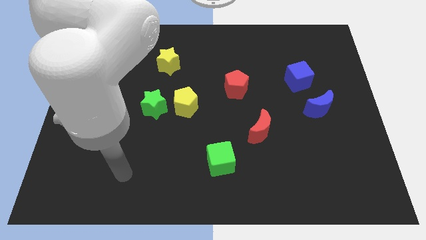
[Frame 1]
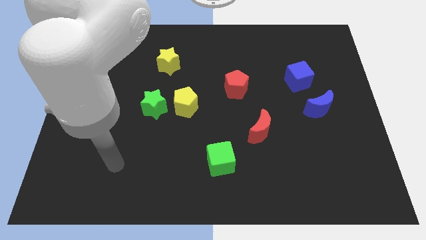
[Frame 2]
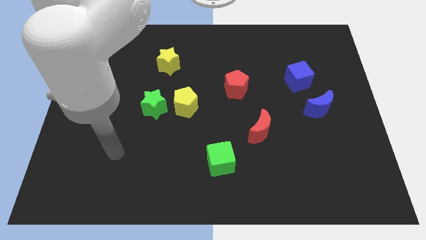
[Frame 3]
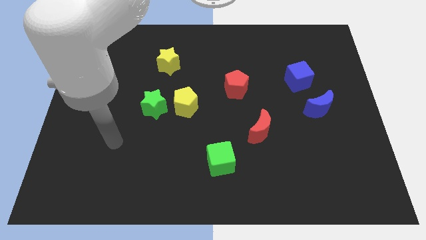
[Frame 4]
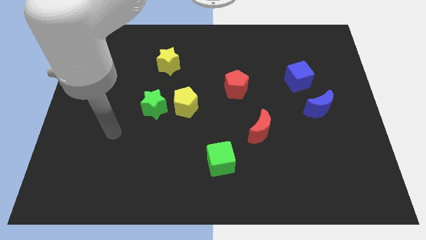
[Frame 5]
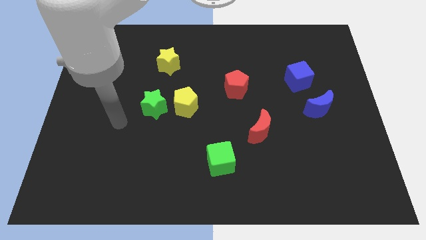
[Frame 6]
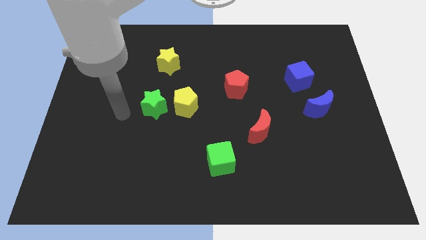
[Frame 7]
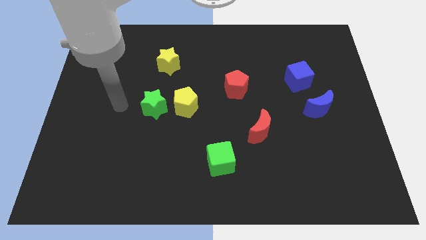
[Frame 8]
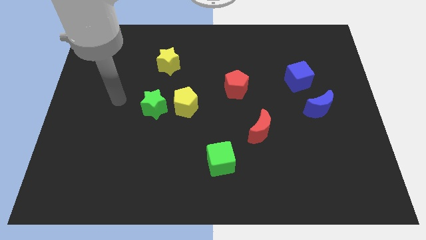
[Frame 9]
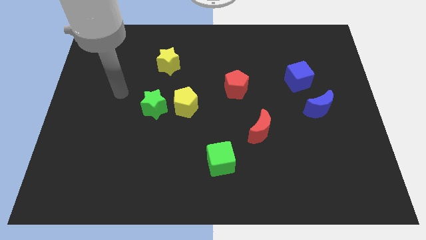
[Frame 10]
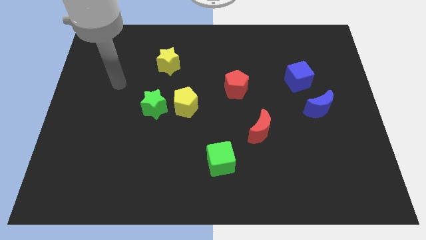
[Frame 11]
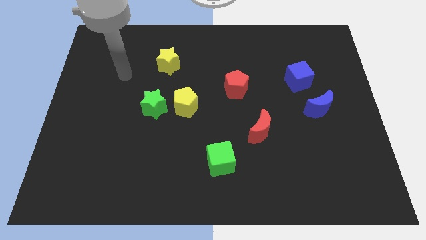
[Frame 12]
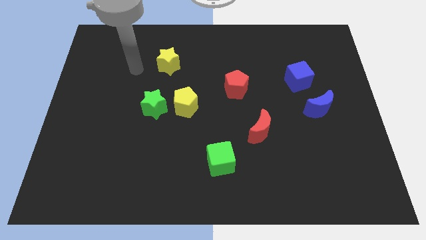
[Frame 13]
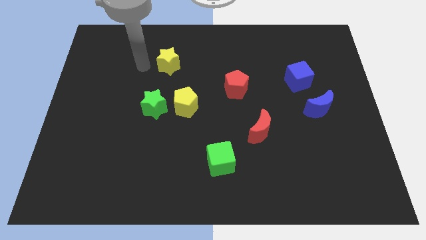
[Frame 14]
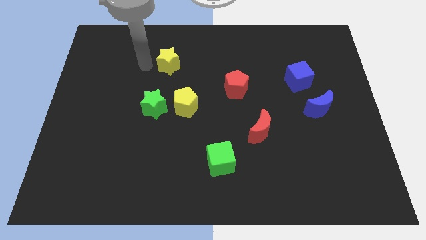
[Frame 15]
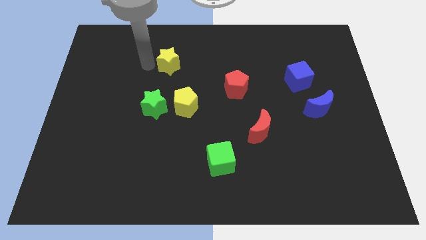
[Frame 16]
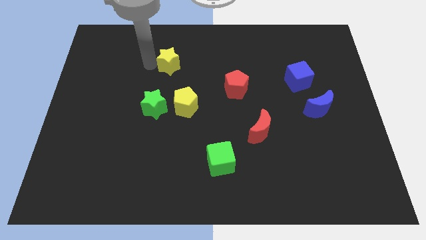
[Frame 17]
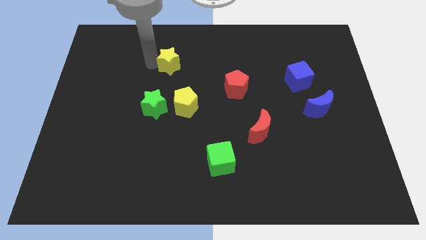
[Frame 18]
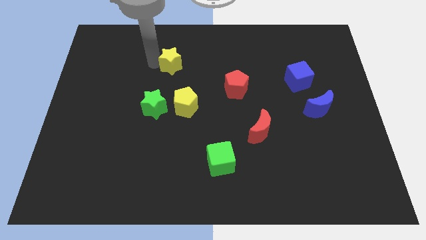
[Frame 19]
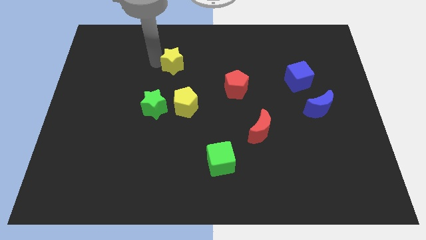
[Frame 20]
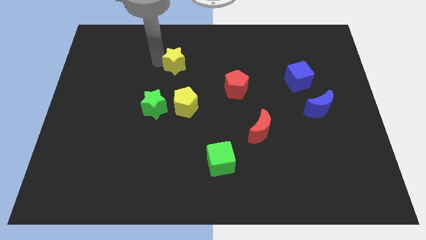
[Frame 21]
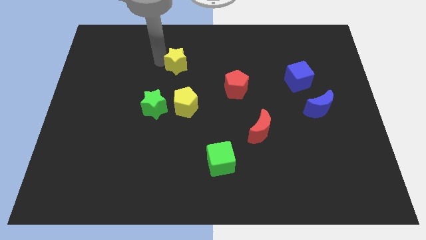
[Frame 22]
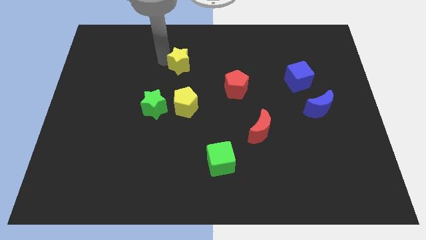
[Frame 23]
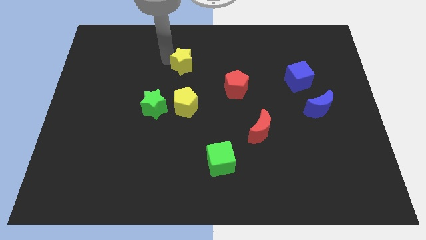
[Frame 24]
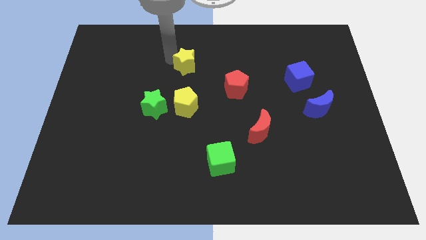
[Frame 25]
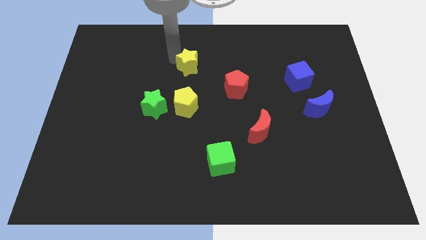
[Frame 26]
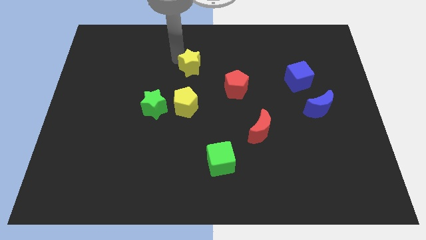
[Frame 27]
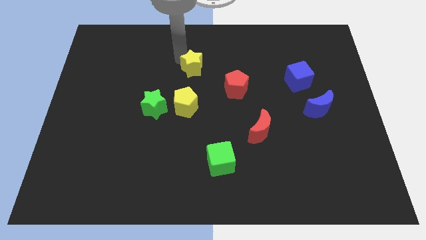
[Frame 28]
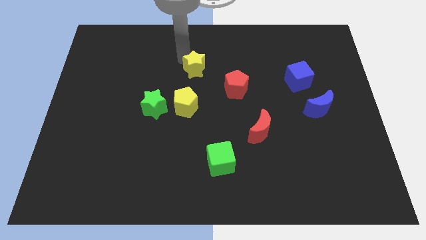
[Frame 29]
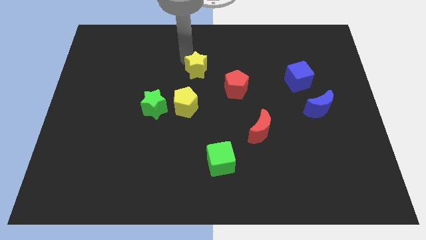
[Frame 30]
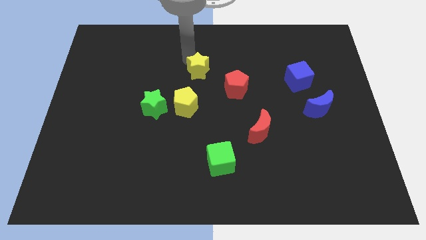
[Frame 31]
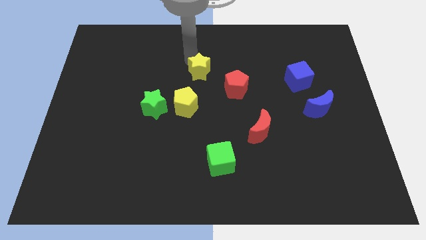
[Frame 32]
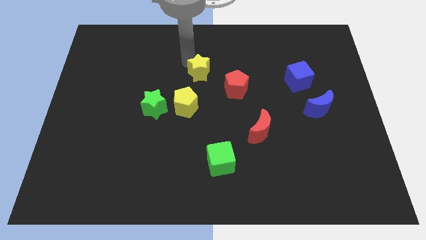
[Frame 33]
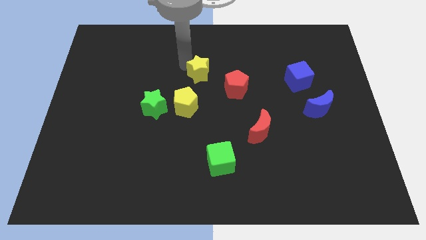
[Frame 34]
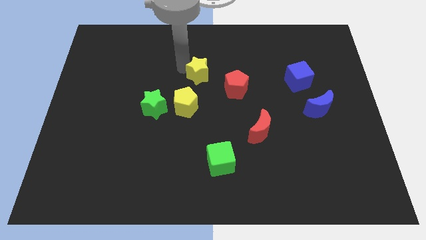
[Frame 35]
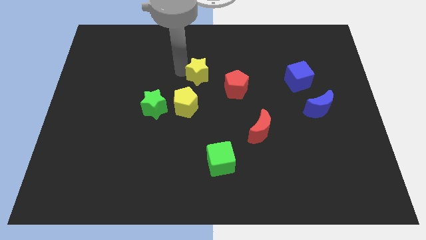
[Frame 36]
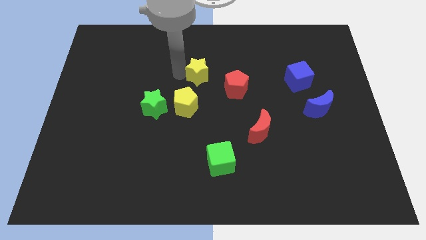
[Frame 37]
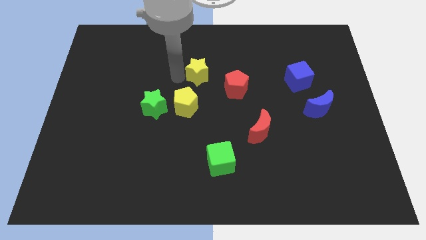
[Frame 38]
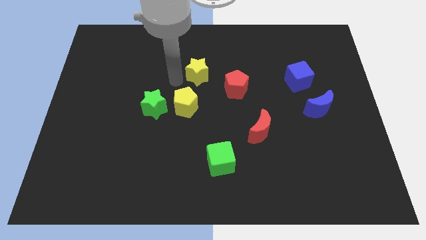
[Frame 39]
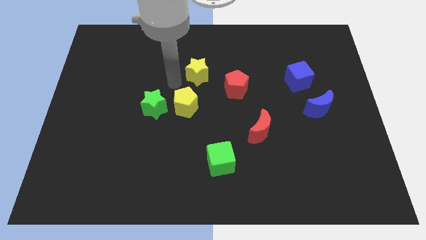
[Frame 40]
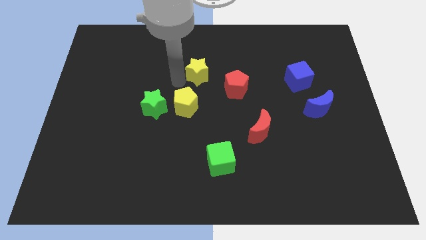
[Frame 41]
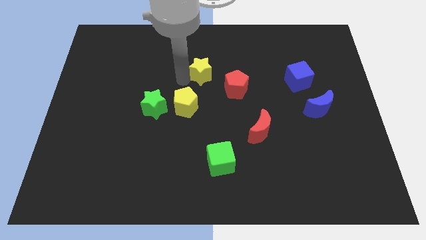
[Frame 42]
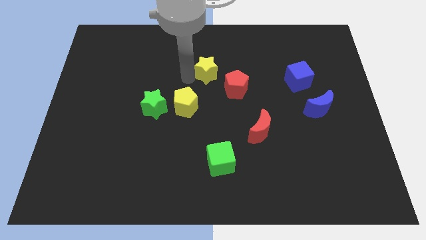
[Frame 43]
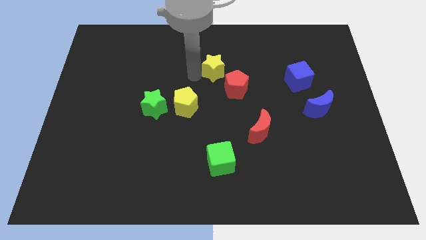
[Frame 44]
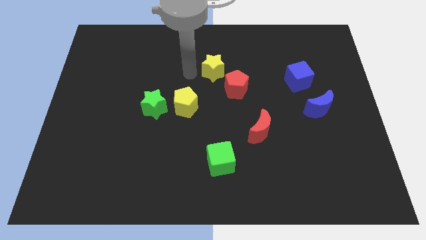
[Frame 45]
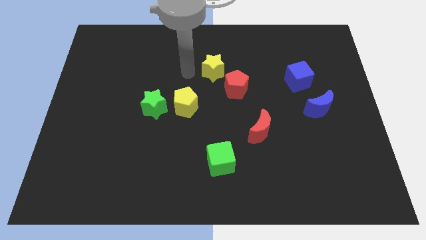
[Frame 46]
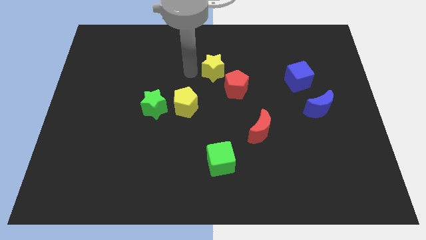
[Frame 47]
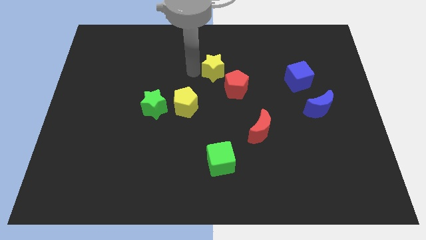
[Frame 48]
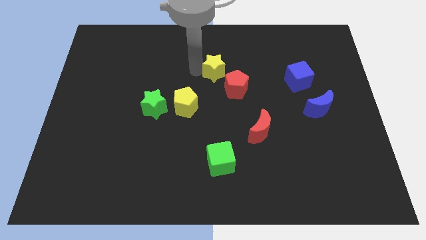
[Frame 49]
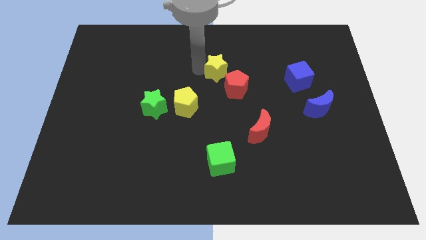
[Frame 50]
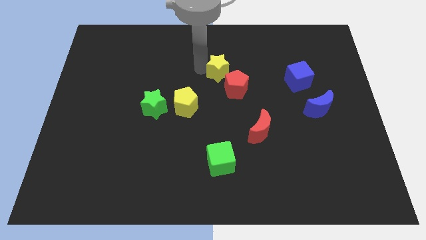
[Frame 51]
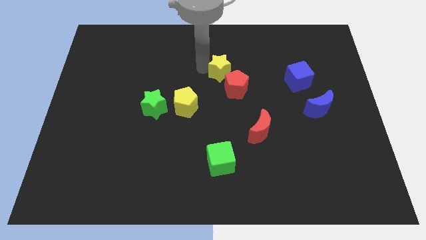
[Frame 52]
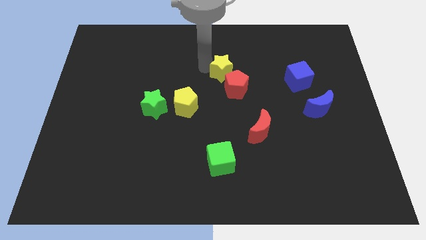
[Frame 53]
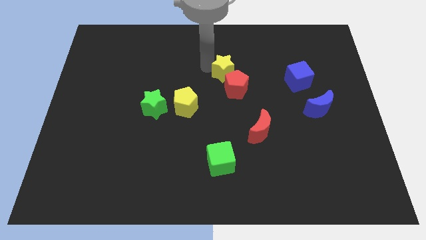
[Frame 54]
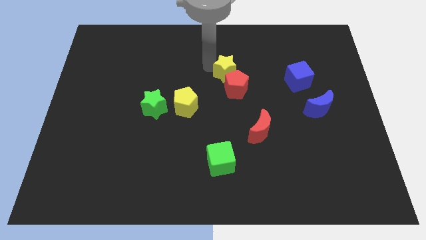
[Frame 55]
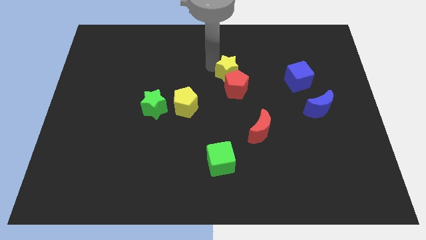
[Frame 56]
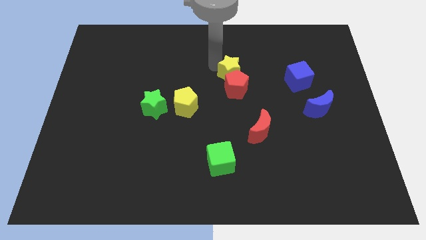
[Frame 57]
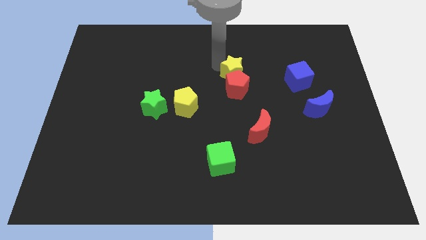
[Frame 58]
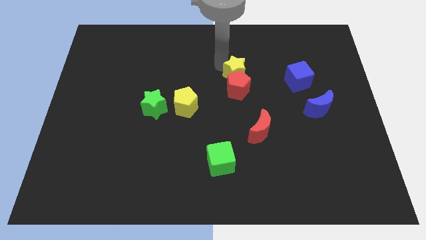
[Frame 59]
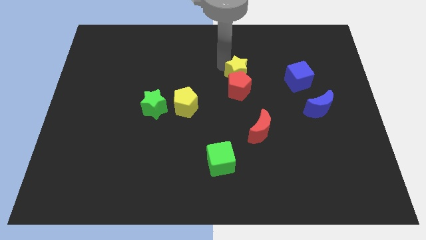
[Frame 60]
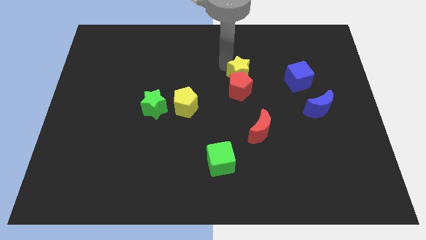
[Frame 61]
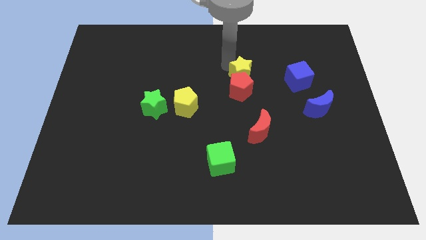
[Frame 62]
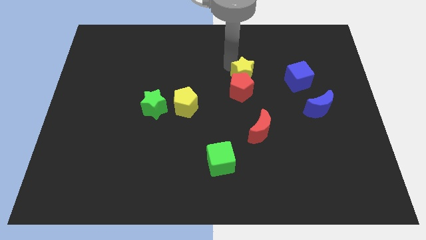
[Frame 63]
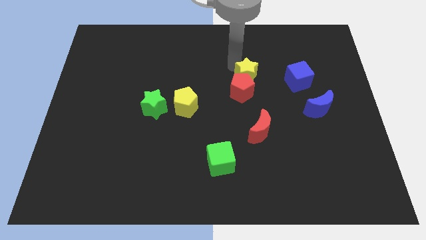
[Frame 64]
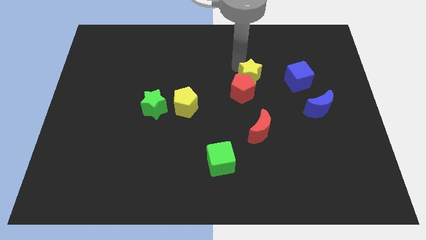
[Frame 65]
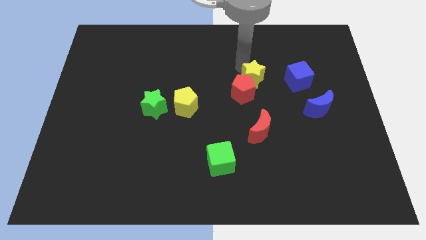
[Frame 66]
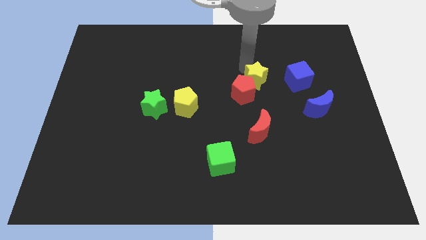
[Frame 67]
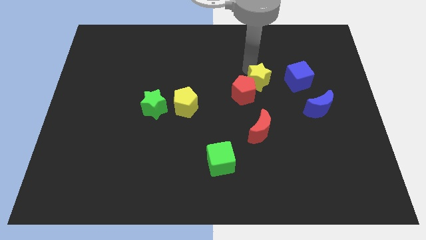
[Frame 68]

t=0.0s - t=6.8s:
push the yellow star to the right side of the red pentagon

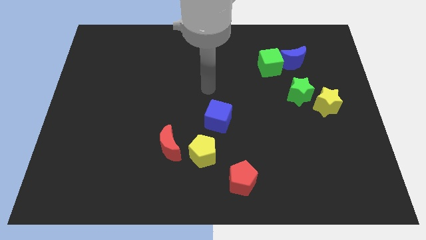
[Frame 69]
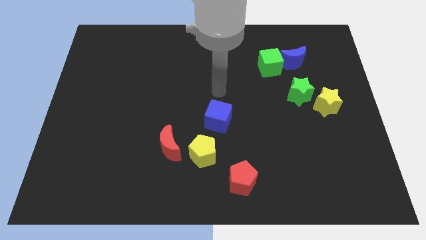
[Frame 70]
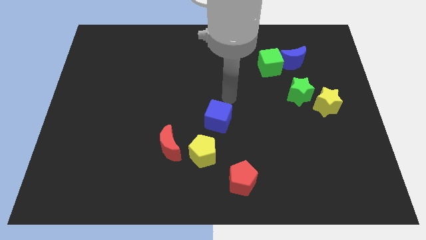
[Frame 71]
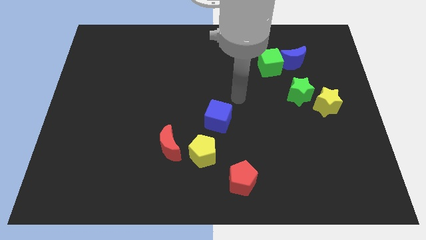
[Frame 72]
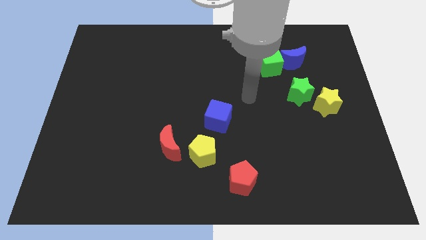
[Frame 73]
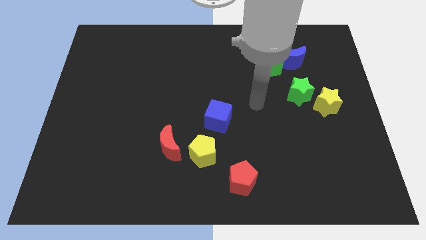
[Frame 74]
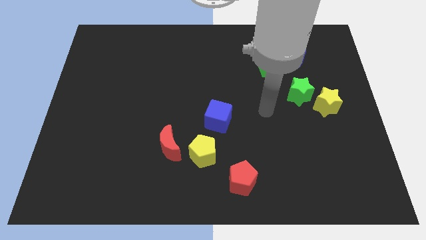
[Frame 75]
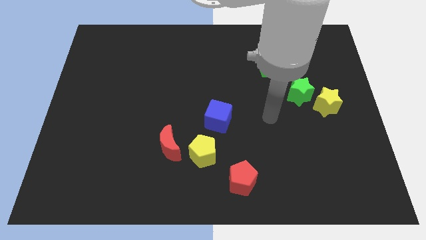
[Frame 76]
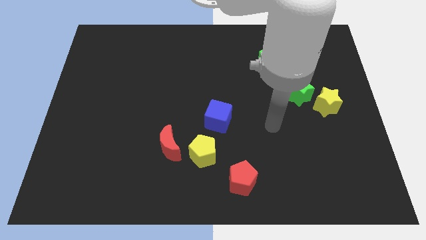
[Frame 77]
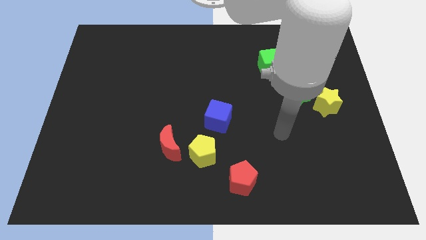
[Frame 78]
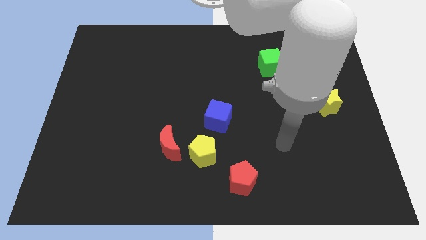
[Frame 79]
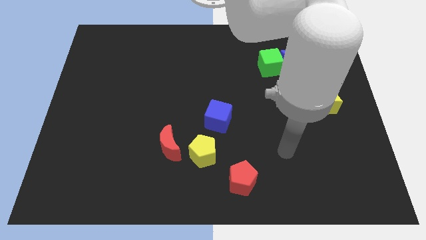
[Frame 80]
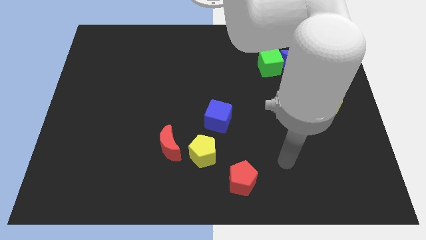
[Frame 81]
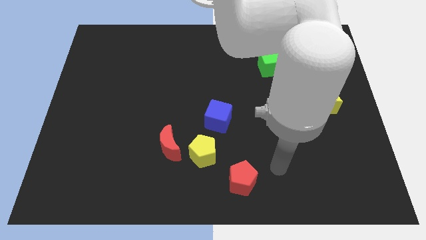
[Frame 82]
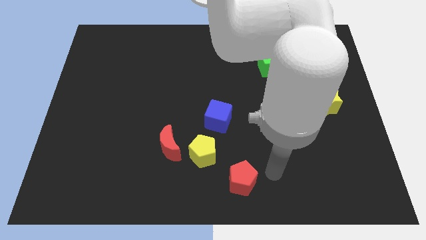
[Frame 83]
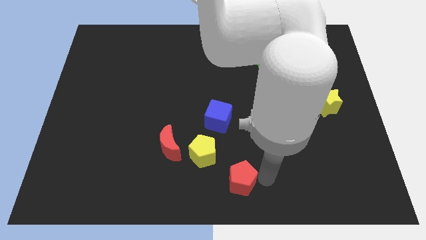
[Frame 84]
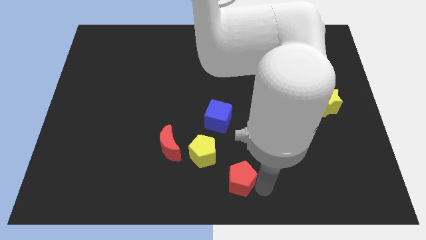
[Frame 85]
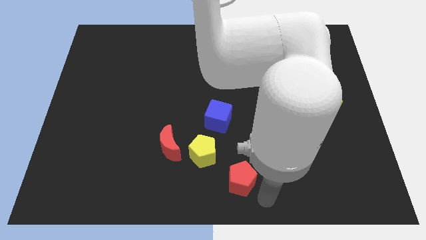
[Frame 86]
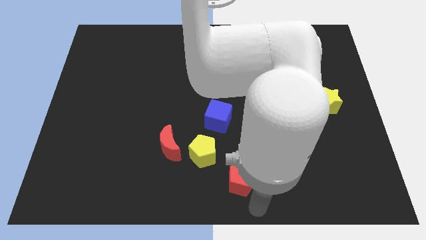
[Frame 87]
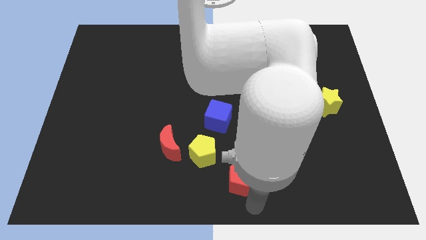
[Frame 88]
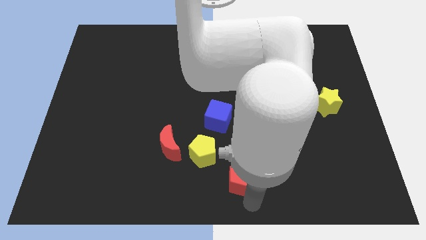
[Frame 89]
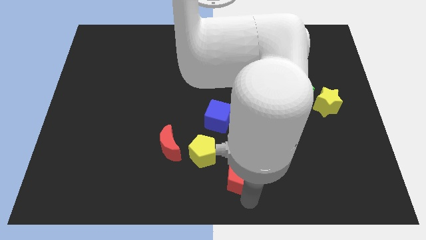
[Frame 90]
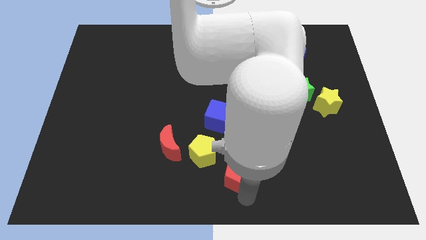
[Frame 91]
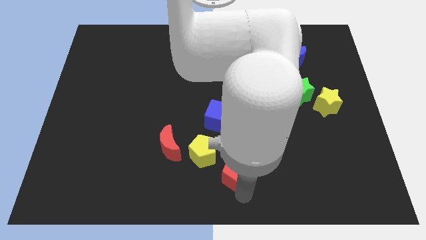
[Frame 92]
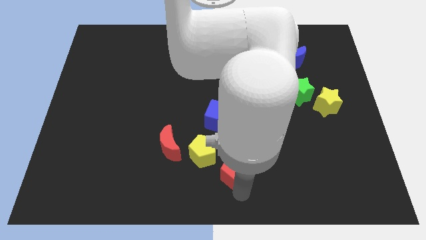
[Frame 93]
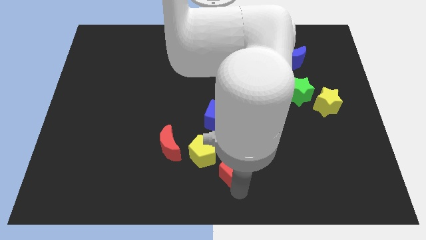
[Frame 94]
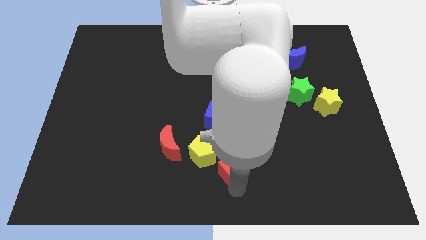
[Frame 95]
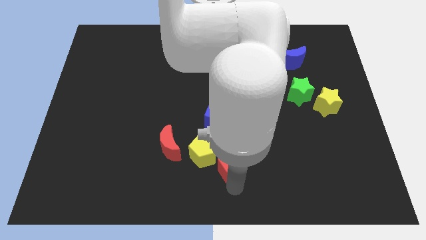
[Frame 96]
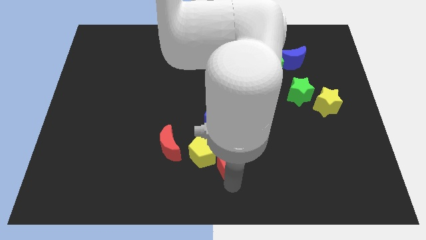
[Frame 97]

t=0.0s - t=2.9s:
push the red pentagon just right of the red moon
